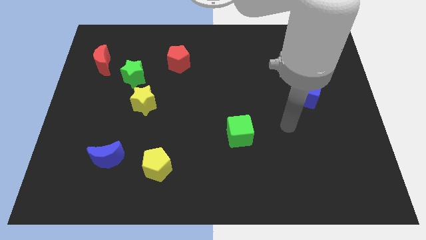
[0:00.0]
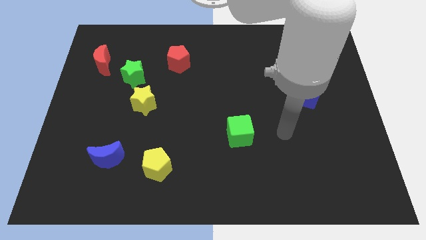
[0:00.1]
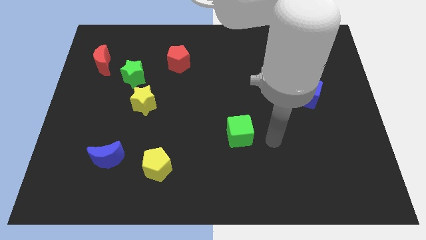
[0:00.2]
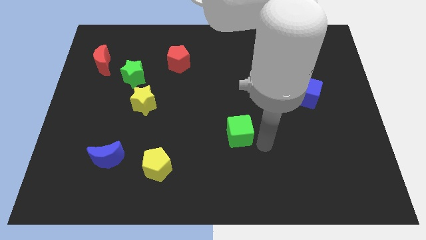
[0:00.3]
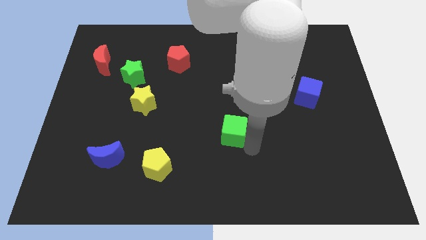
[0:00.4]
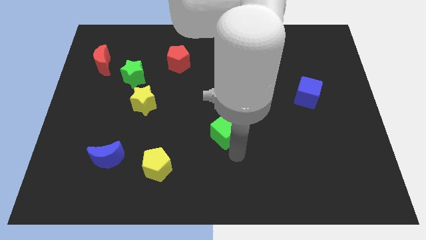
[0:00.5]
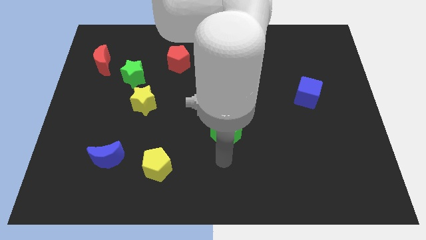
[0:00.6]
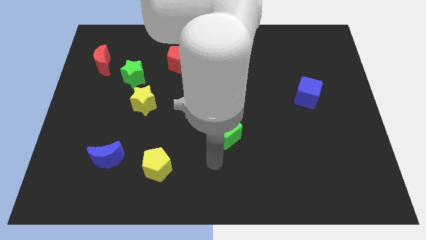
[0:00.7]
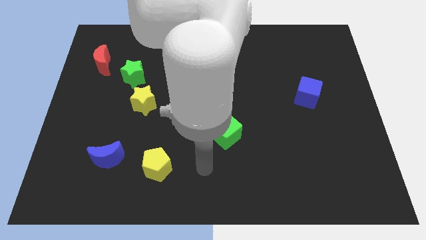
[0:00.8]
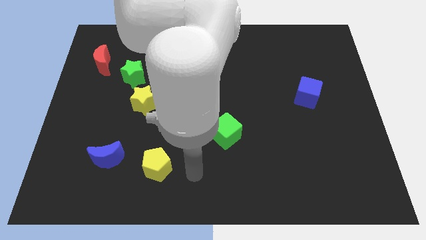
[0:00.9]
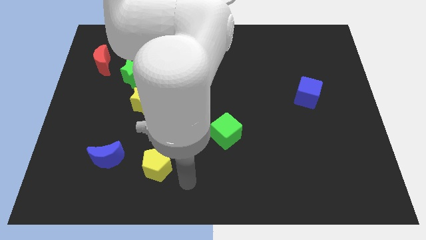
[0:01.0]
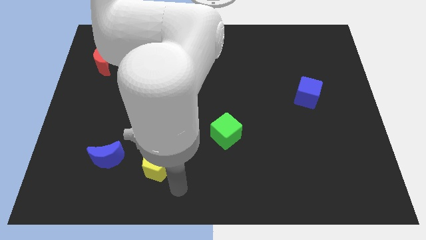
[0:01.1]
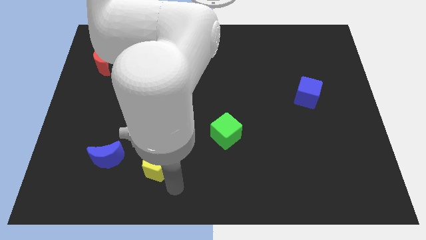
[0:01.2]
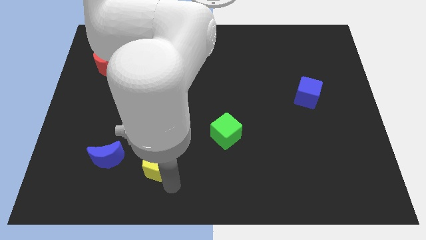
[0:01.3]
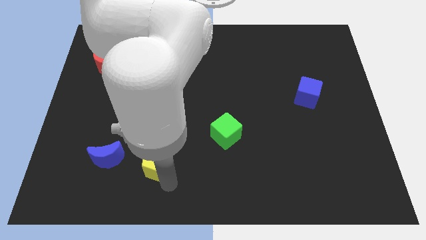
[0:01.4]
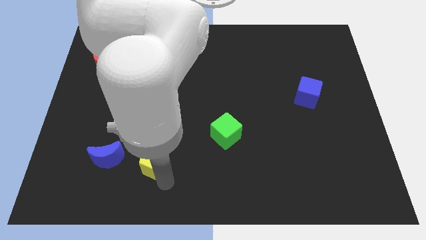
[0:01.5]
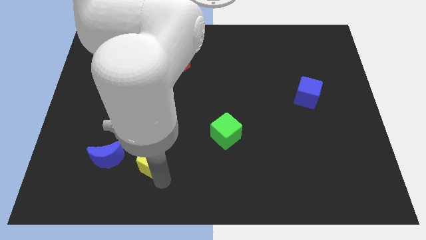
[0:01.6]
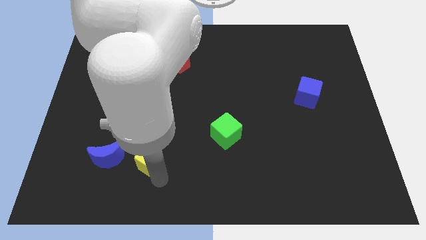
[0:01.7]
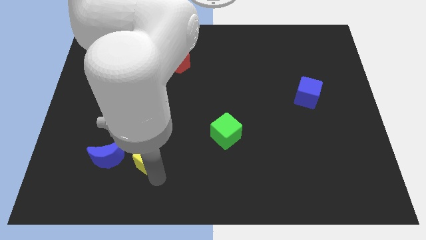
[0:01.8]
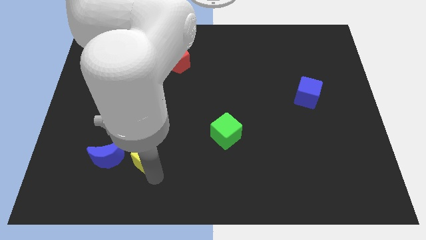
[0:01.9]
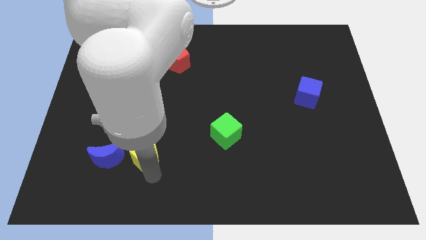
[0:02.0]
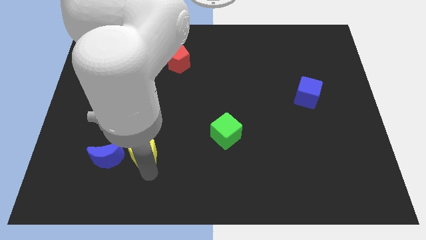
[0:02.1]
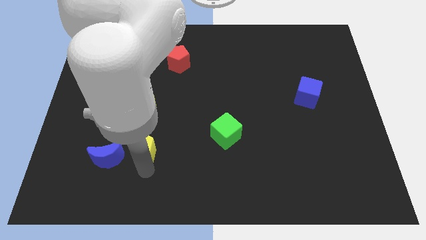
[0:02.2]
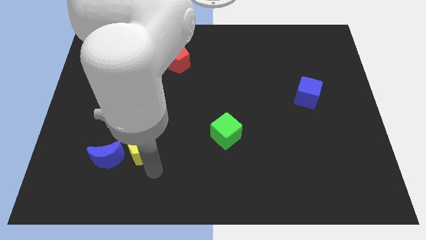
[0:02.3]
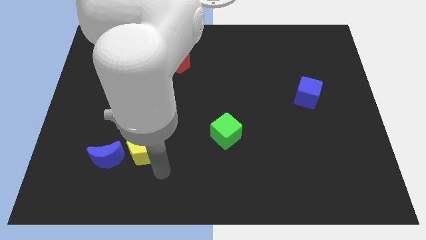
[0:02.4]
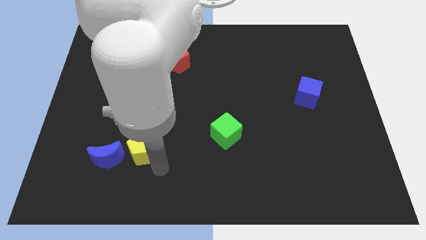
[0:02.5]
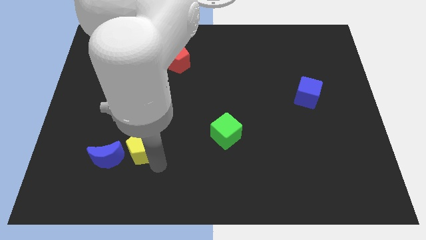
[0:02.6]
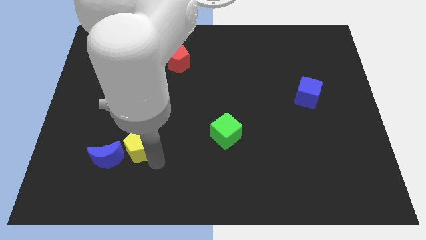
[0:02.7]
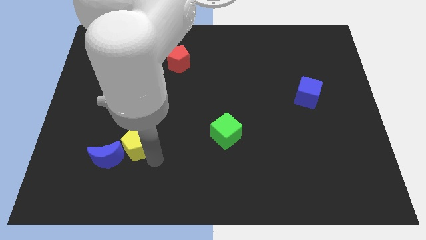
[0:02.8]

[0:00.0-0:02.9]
slightly push the yellow pentagon upwards and to the left

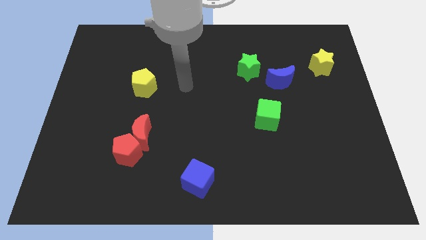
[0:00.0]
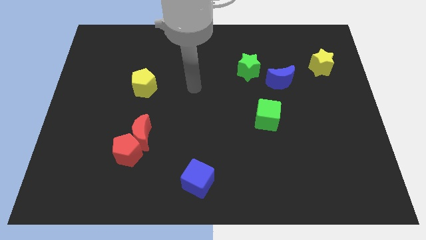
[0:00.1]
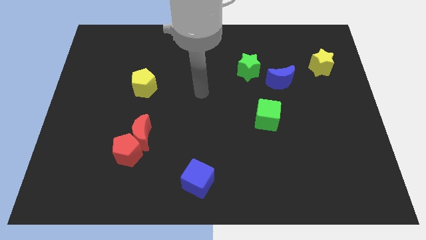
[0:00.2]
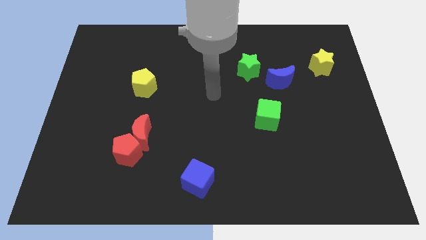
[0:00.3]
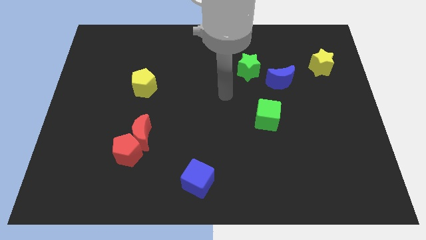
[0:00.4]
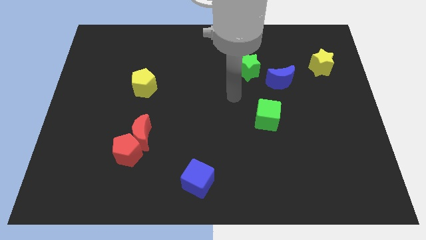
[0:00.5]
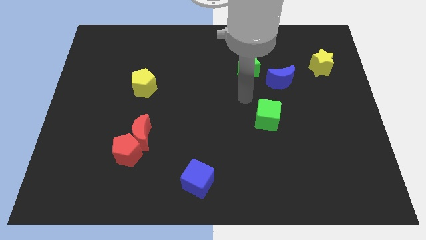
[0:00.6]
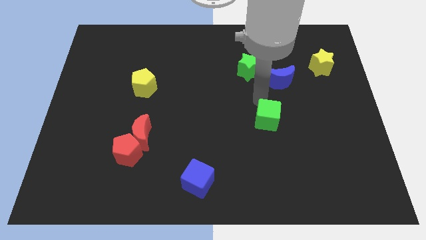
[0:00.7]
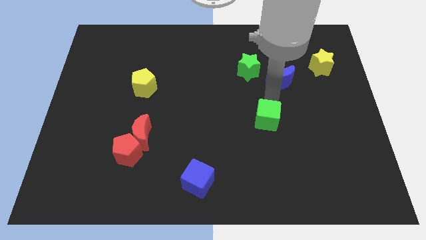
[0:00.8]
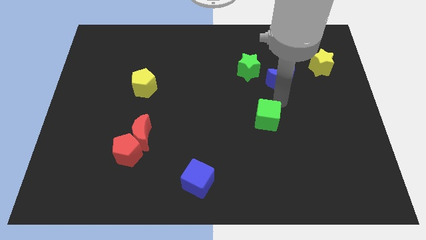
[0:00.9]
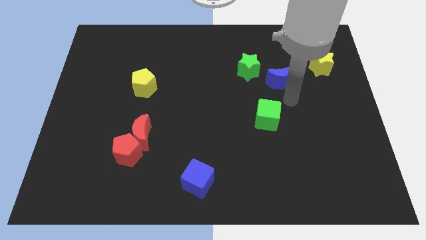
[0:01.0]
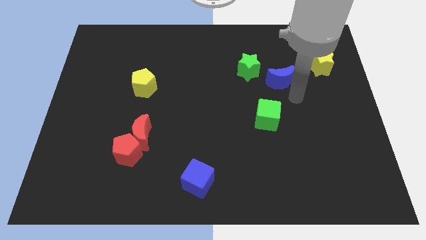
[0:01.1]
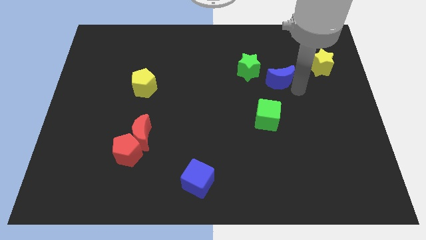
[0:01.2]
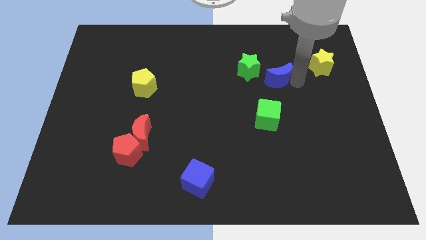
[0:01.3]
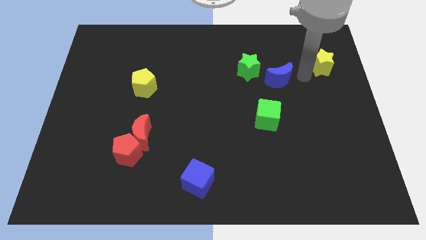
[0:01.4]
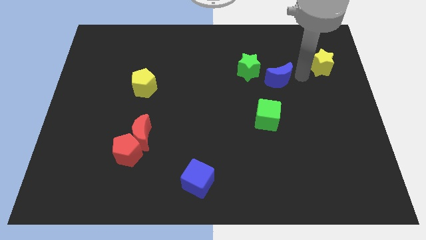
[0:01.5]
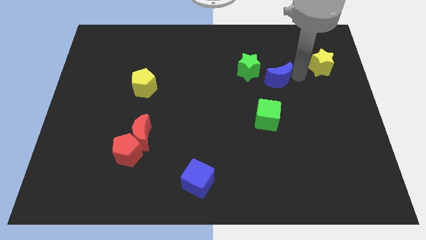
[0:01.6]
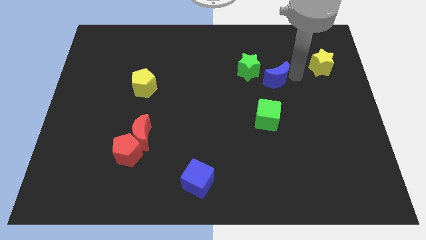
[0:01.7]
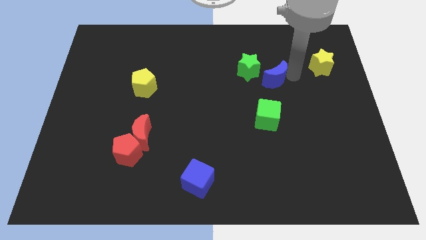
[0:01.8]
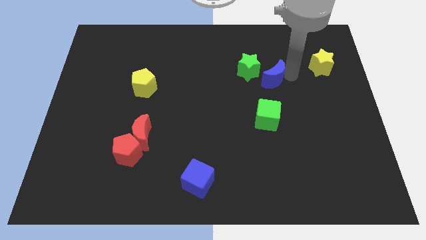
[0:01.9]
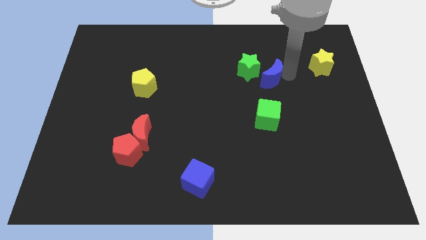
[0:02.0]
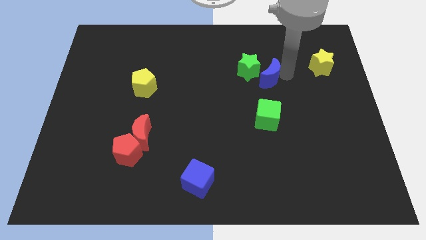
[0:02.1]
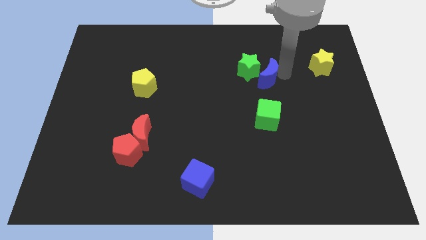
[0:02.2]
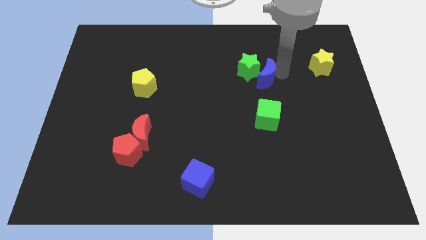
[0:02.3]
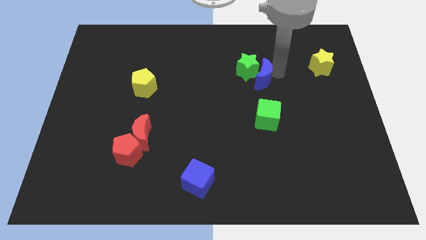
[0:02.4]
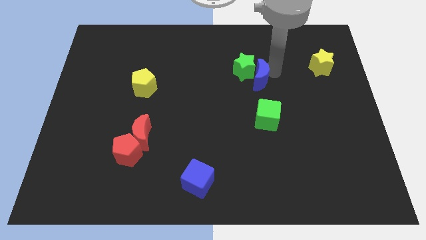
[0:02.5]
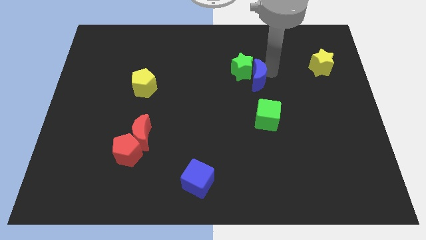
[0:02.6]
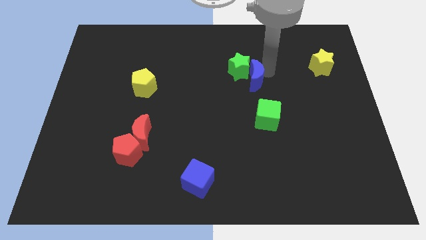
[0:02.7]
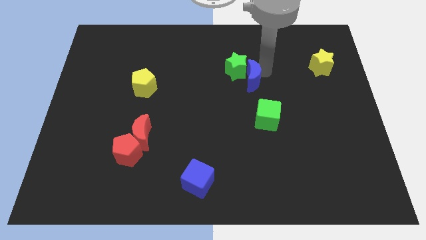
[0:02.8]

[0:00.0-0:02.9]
move the blue moon to the left a bit

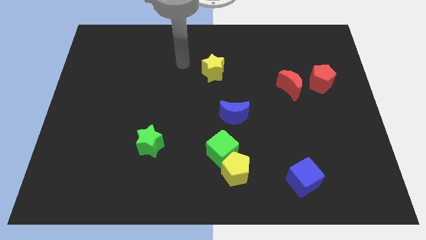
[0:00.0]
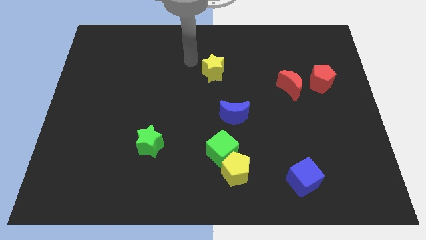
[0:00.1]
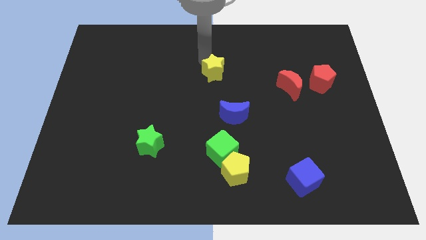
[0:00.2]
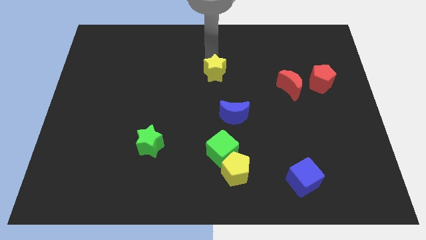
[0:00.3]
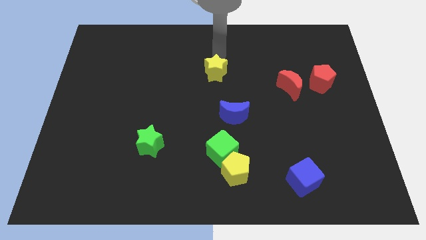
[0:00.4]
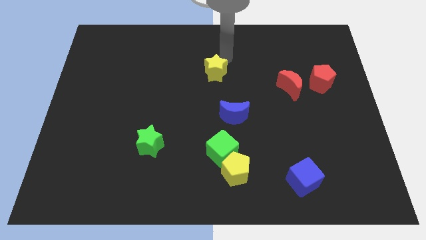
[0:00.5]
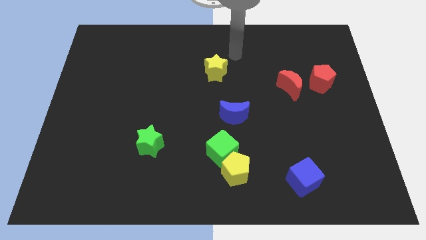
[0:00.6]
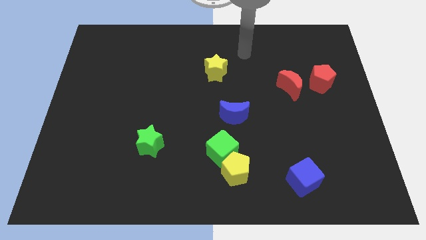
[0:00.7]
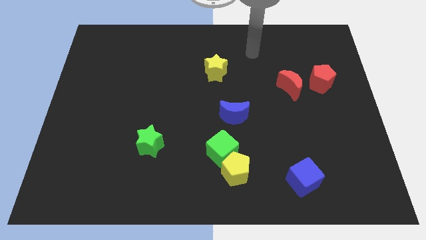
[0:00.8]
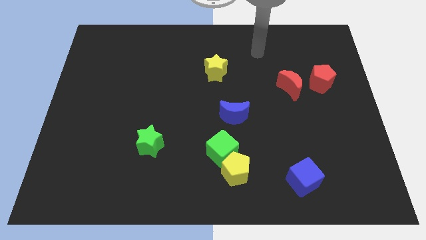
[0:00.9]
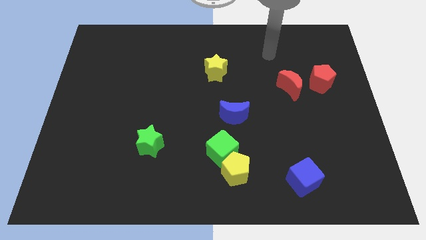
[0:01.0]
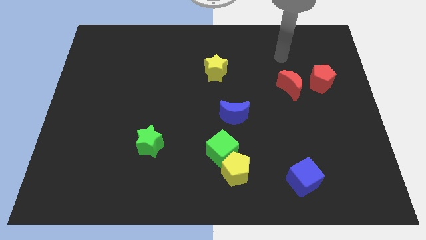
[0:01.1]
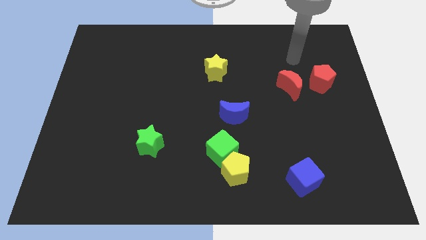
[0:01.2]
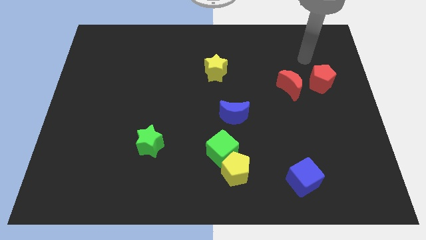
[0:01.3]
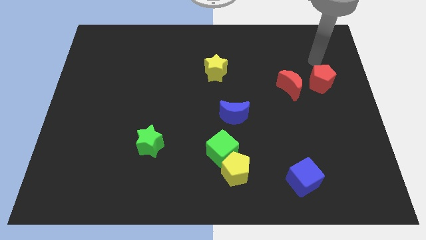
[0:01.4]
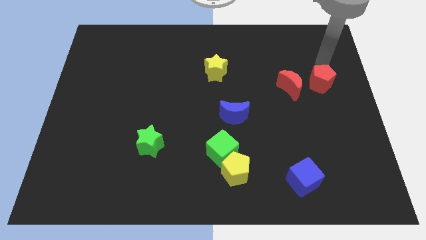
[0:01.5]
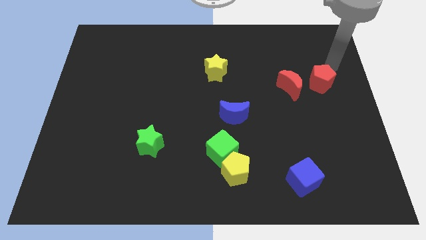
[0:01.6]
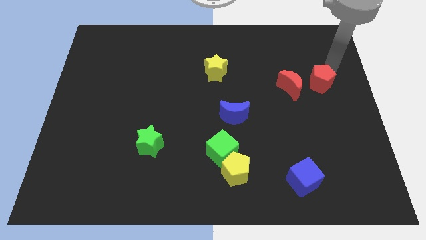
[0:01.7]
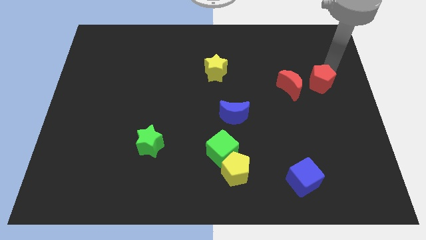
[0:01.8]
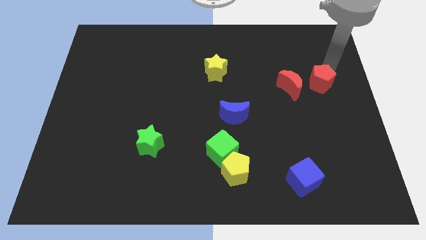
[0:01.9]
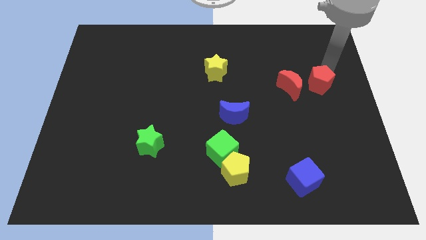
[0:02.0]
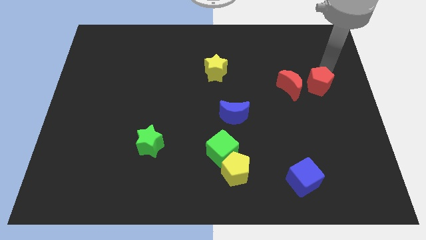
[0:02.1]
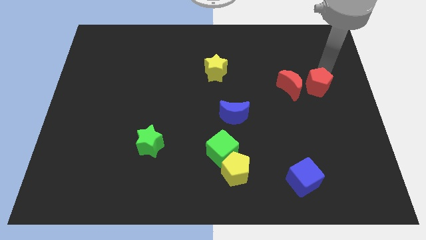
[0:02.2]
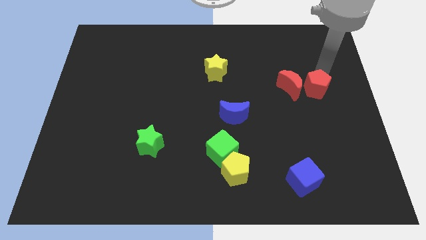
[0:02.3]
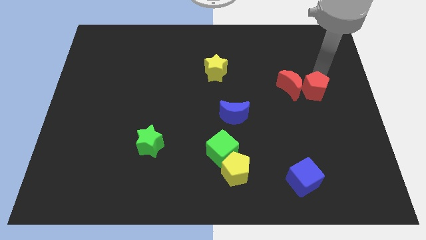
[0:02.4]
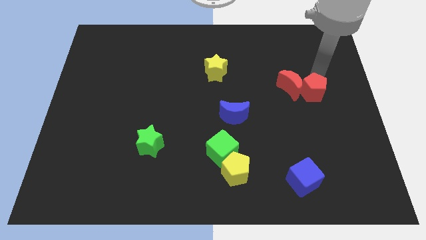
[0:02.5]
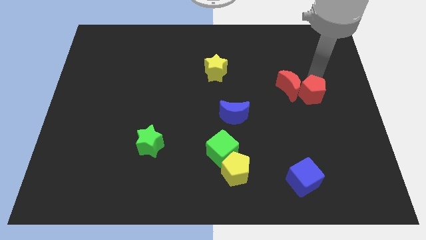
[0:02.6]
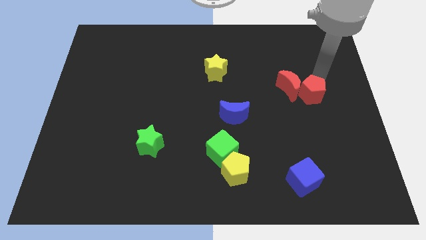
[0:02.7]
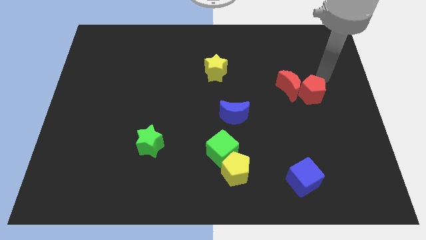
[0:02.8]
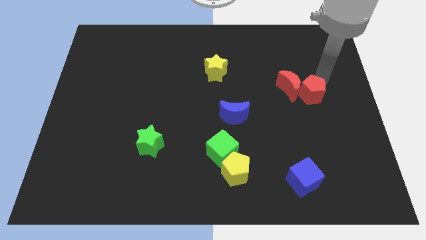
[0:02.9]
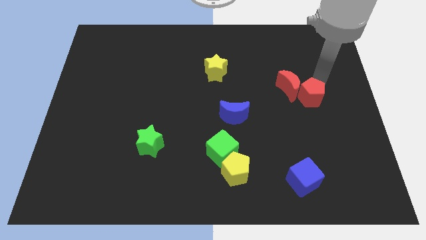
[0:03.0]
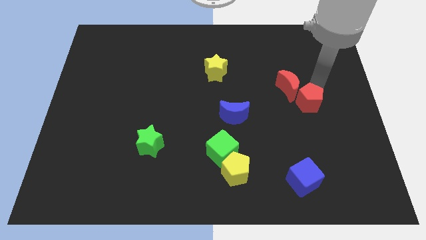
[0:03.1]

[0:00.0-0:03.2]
move the red pentagon a bit downwards and to the left diagonally
